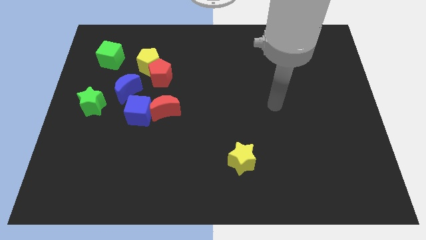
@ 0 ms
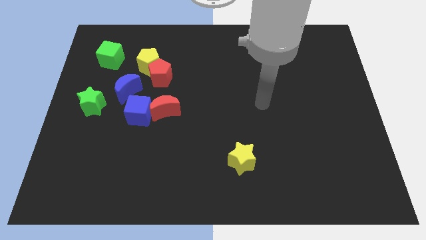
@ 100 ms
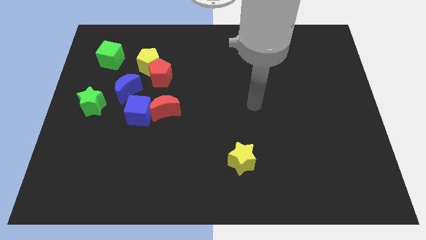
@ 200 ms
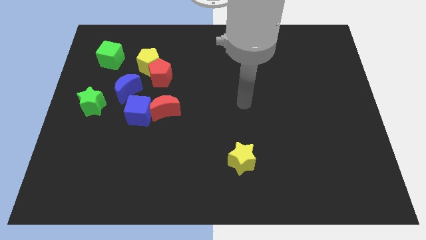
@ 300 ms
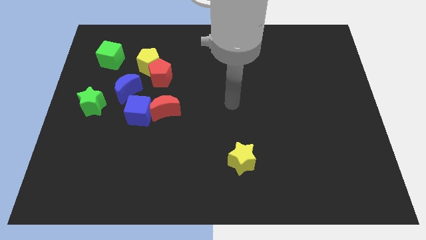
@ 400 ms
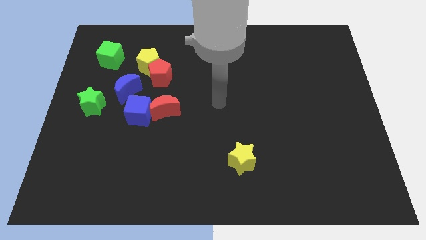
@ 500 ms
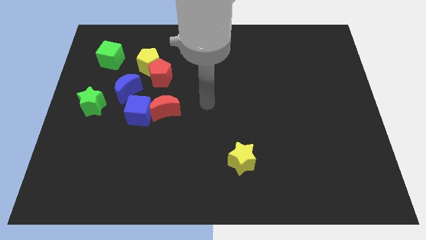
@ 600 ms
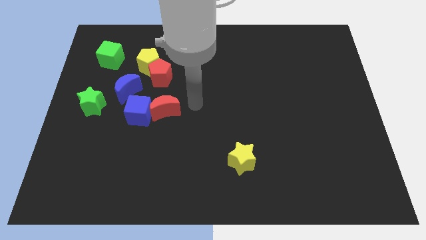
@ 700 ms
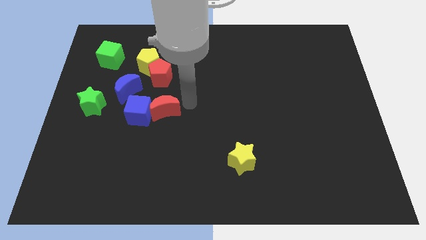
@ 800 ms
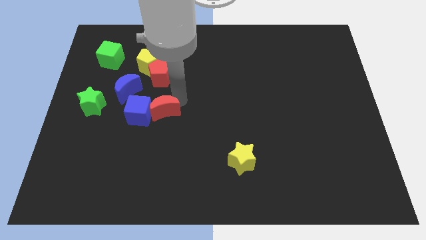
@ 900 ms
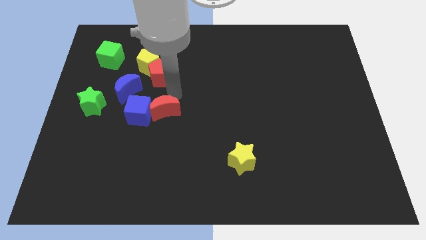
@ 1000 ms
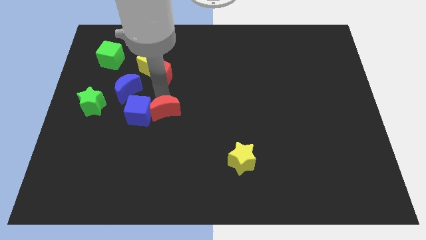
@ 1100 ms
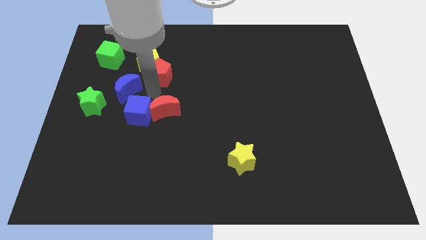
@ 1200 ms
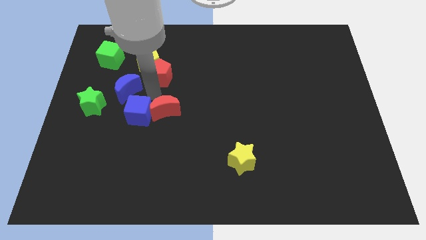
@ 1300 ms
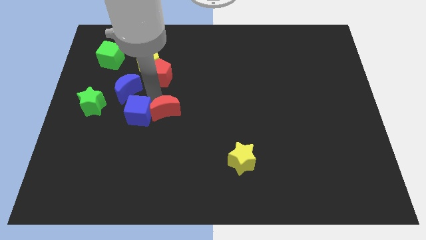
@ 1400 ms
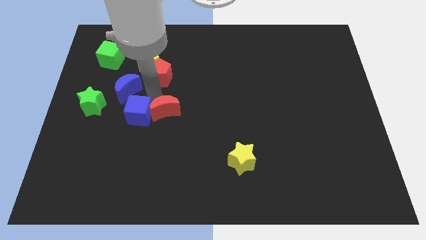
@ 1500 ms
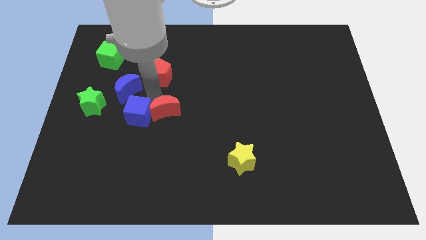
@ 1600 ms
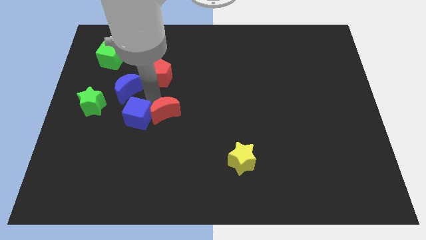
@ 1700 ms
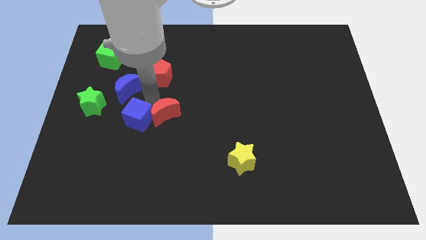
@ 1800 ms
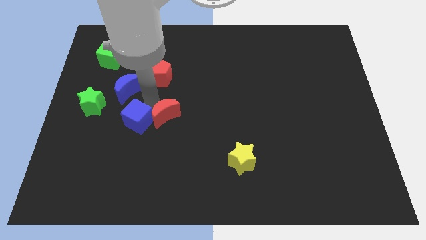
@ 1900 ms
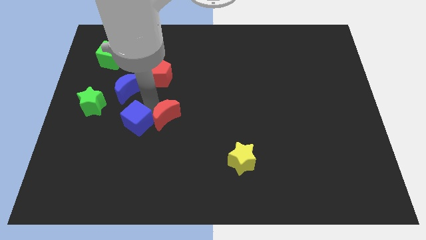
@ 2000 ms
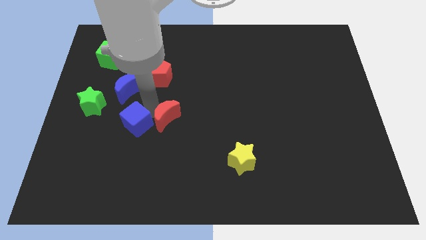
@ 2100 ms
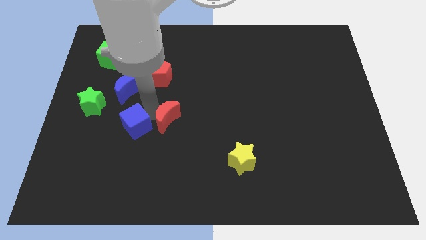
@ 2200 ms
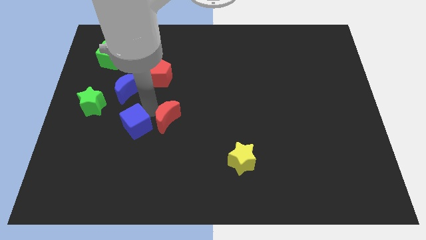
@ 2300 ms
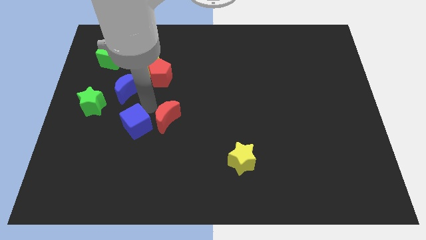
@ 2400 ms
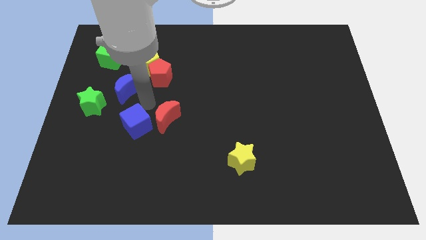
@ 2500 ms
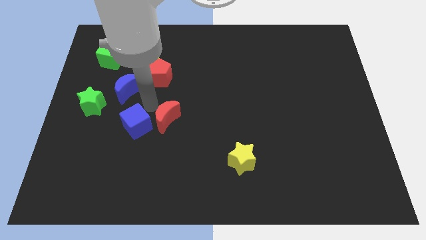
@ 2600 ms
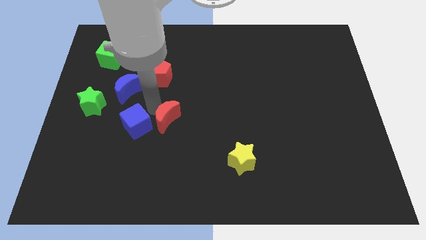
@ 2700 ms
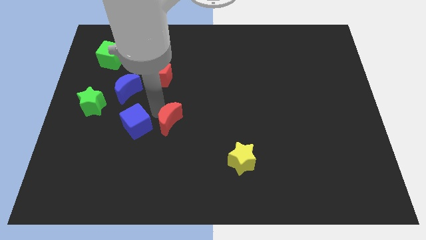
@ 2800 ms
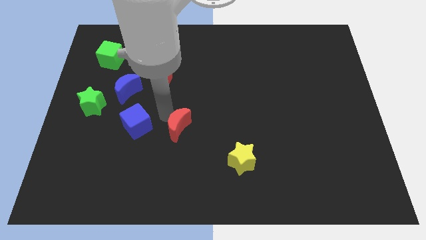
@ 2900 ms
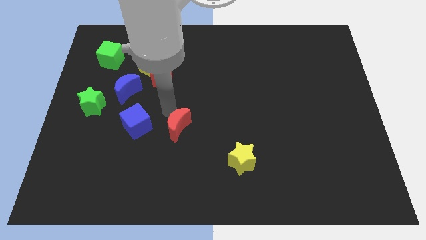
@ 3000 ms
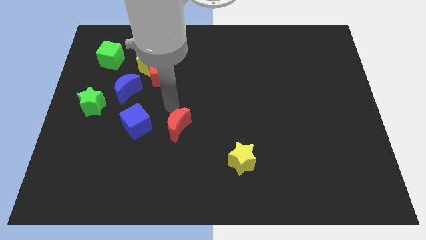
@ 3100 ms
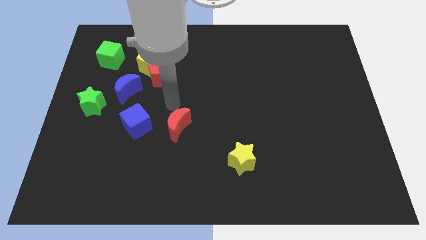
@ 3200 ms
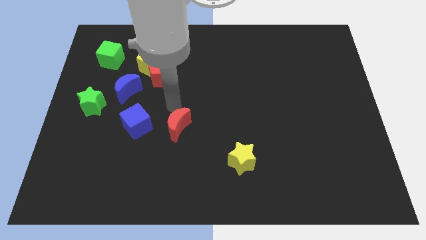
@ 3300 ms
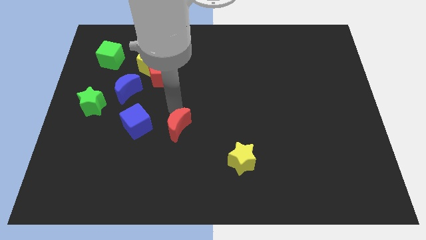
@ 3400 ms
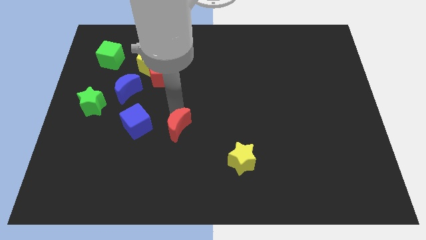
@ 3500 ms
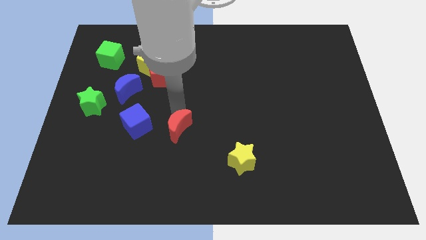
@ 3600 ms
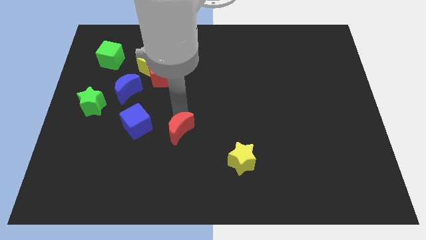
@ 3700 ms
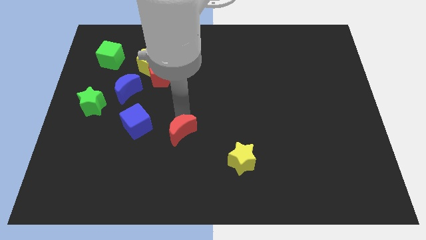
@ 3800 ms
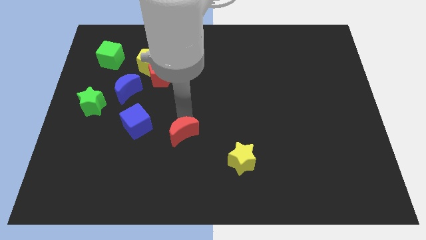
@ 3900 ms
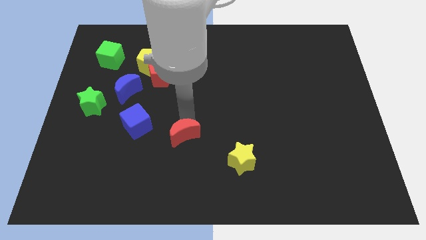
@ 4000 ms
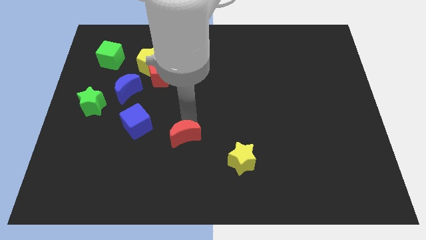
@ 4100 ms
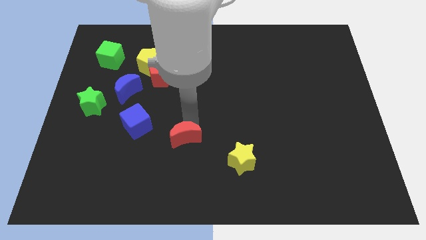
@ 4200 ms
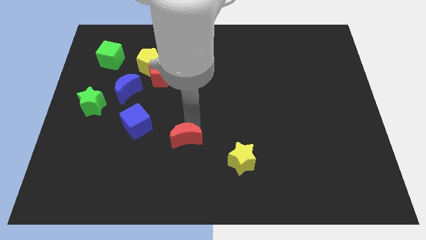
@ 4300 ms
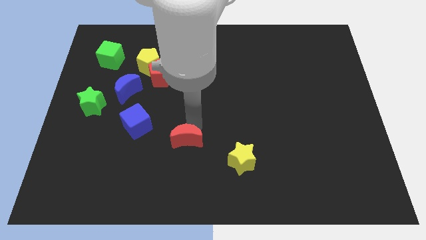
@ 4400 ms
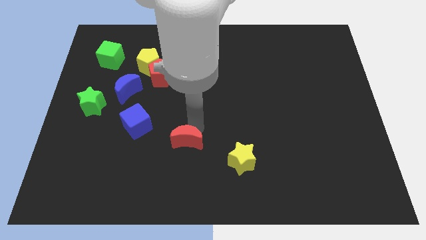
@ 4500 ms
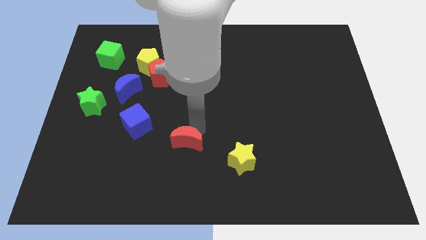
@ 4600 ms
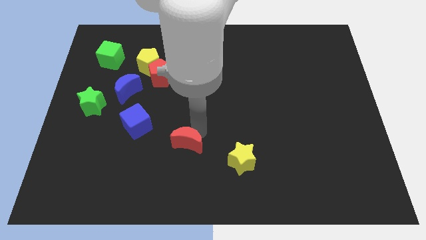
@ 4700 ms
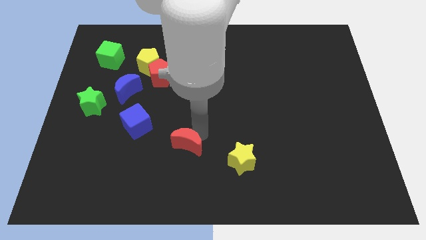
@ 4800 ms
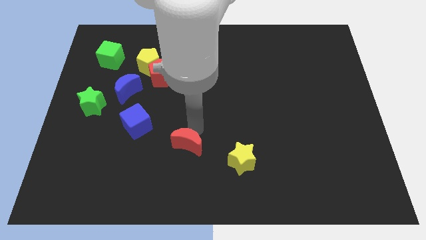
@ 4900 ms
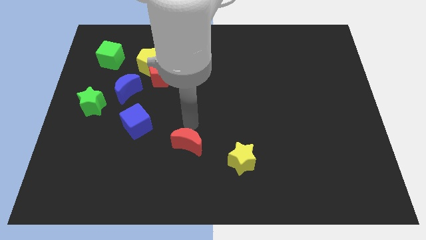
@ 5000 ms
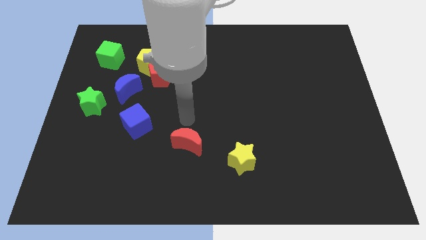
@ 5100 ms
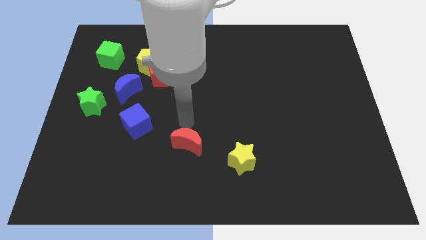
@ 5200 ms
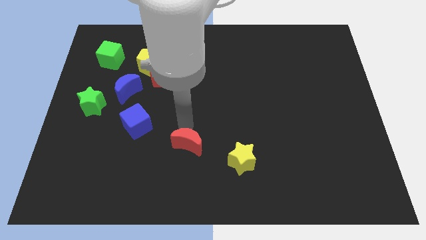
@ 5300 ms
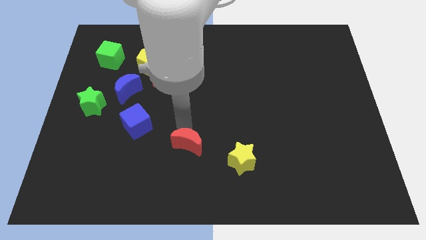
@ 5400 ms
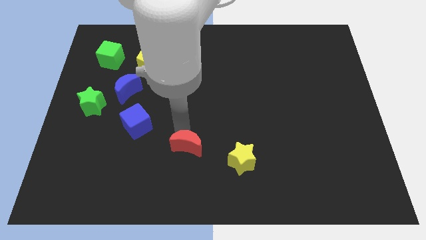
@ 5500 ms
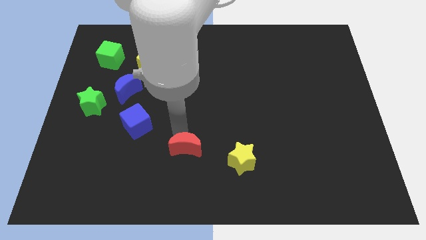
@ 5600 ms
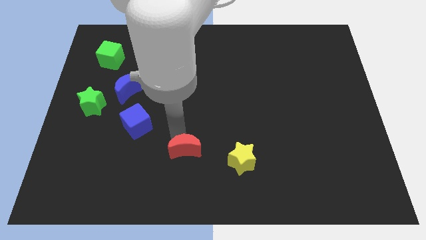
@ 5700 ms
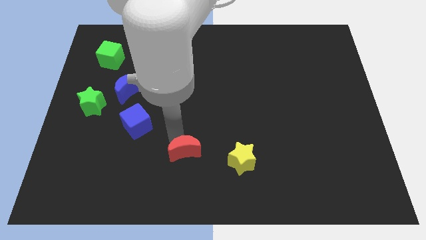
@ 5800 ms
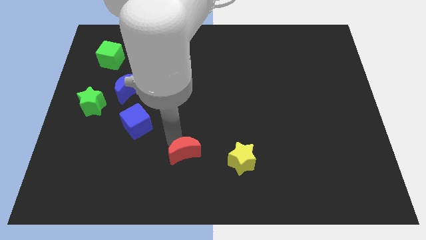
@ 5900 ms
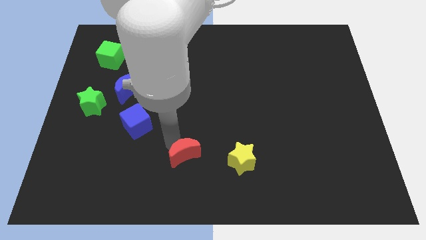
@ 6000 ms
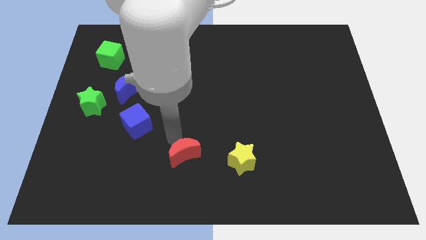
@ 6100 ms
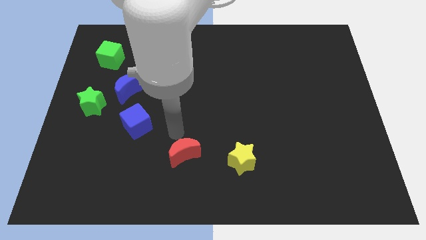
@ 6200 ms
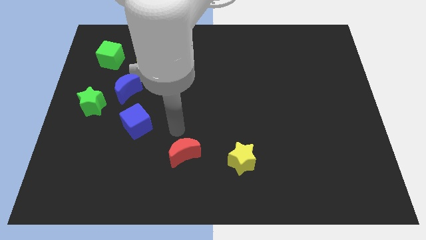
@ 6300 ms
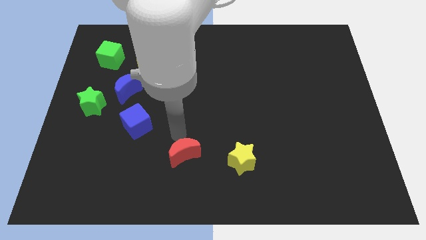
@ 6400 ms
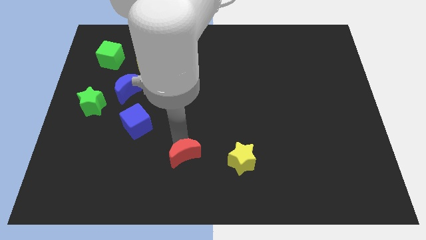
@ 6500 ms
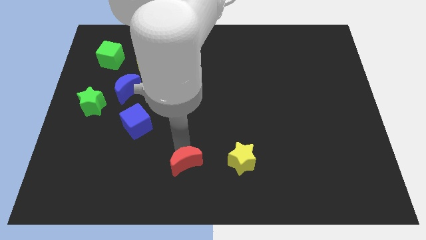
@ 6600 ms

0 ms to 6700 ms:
push the red moon to the bottom

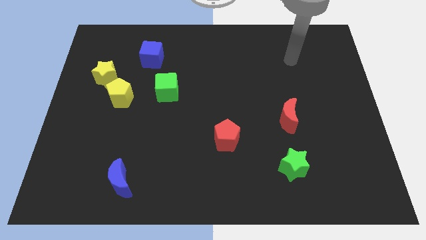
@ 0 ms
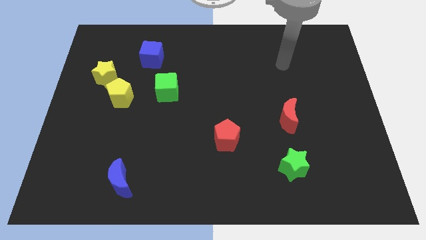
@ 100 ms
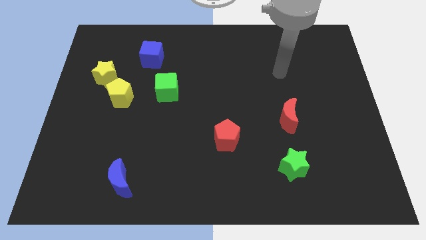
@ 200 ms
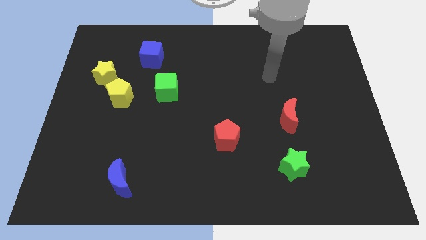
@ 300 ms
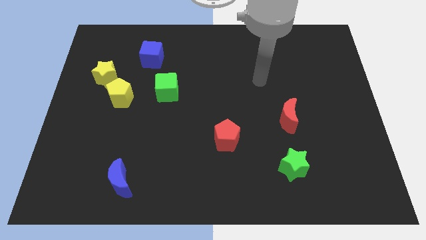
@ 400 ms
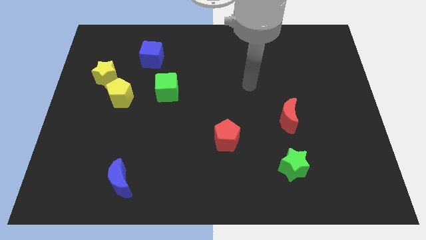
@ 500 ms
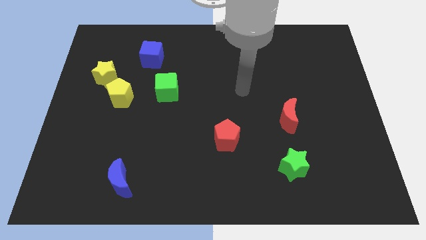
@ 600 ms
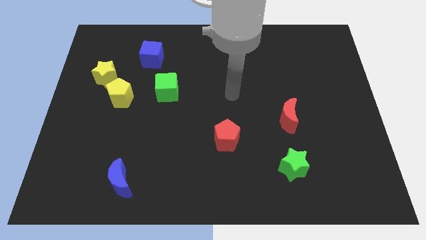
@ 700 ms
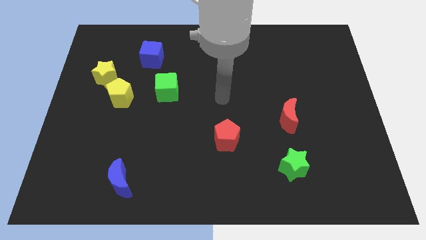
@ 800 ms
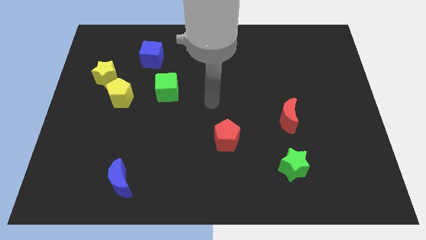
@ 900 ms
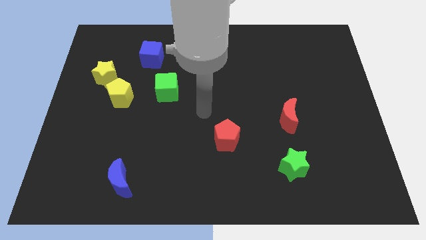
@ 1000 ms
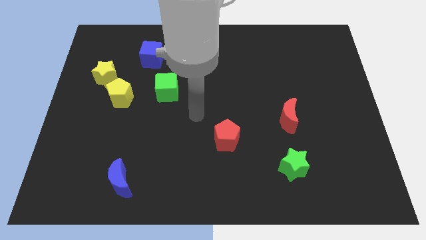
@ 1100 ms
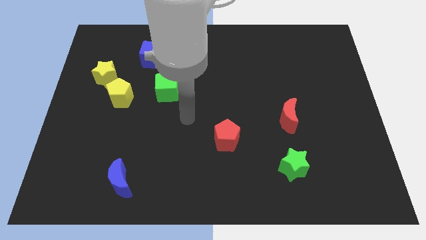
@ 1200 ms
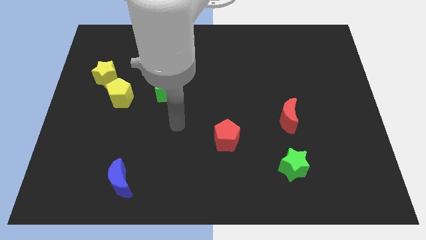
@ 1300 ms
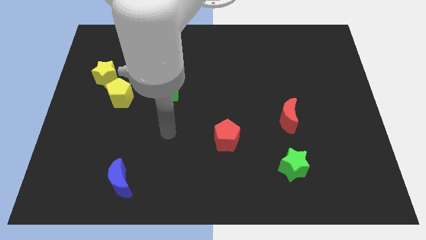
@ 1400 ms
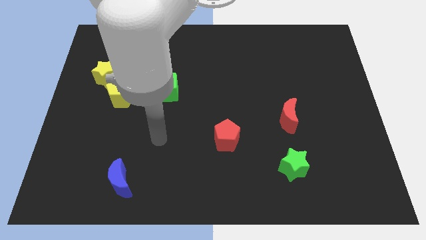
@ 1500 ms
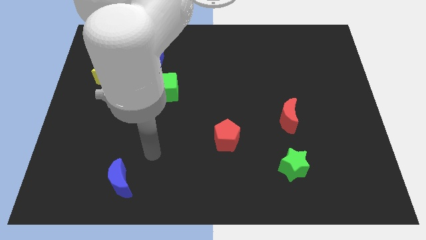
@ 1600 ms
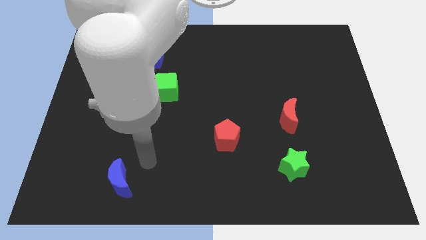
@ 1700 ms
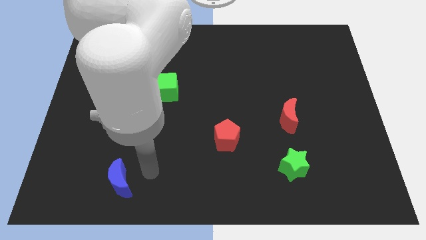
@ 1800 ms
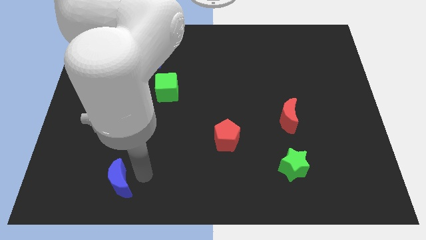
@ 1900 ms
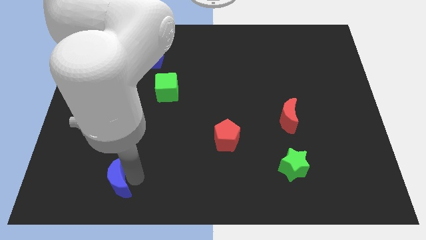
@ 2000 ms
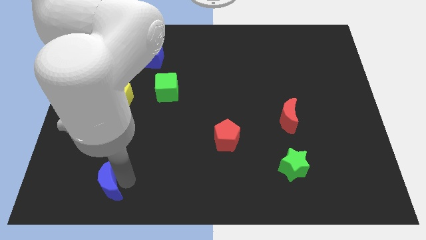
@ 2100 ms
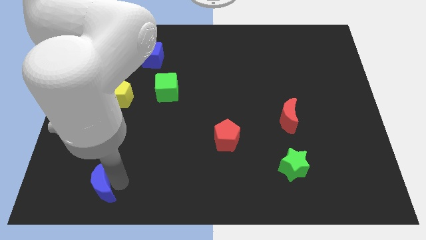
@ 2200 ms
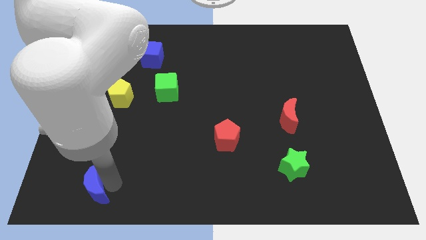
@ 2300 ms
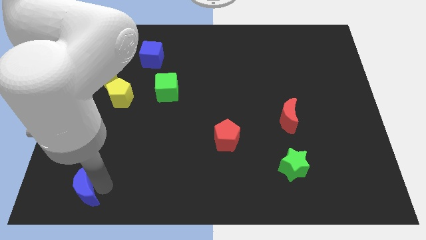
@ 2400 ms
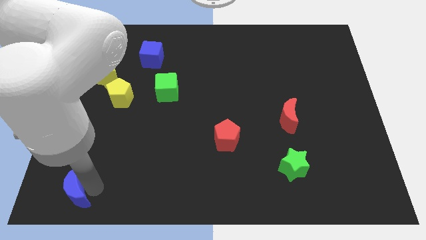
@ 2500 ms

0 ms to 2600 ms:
push the blue moon to the bottom left corner
